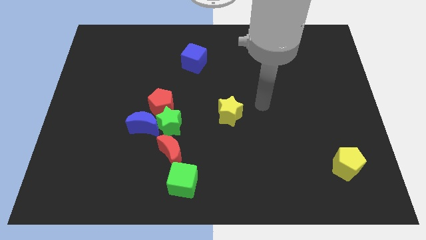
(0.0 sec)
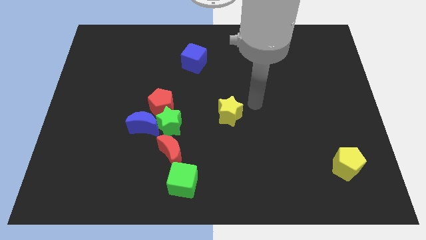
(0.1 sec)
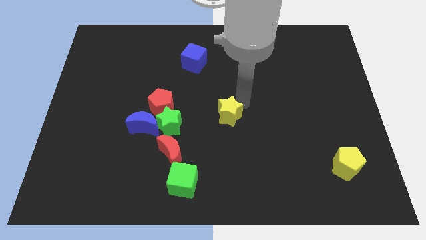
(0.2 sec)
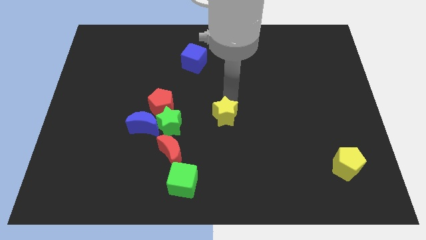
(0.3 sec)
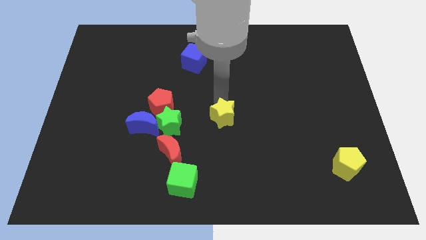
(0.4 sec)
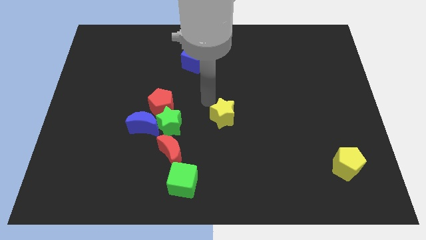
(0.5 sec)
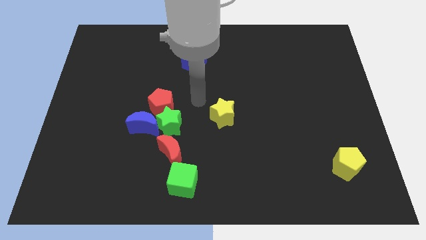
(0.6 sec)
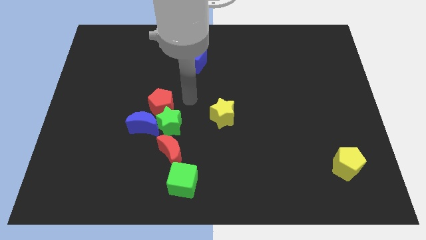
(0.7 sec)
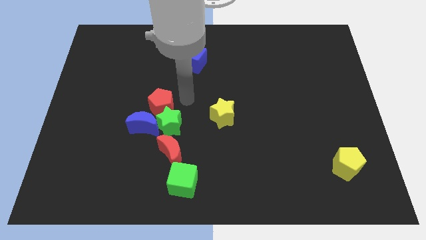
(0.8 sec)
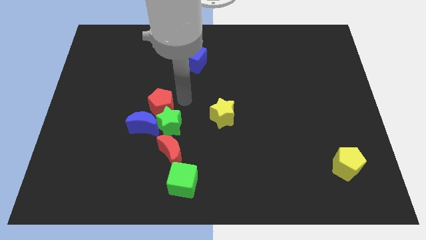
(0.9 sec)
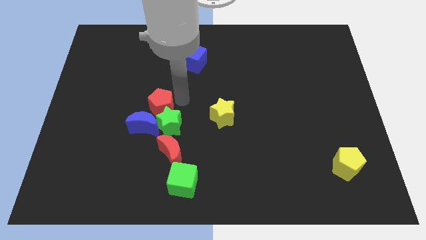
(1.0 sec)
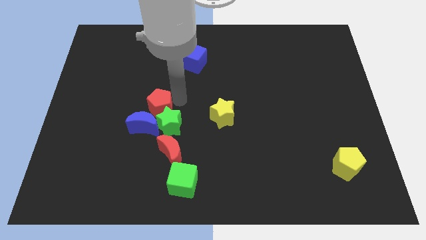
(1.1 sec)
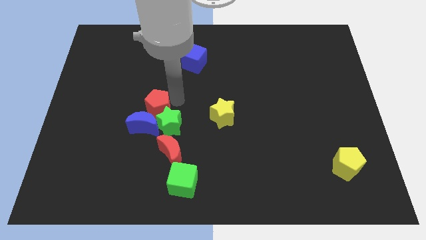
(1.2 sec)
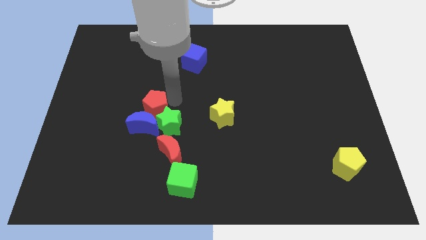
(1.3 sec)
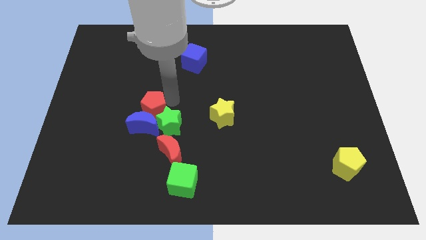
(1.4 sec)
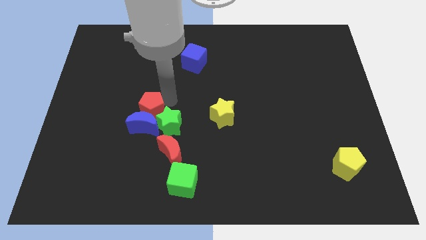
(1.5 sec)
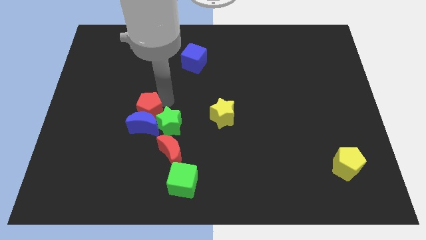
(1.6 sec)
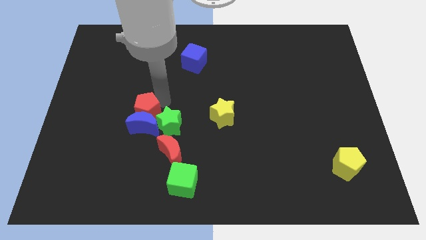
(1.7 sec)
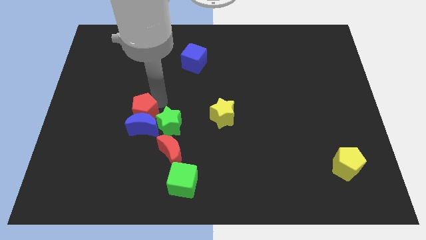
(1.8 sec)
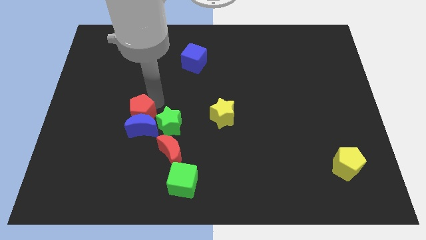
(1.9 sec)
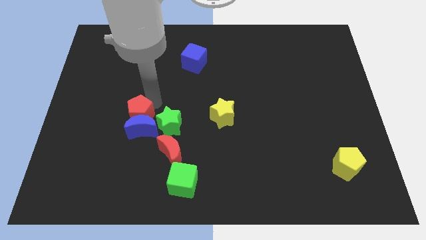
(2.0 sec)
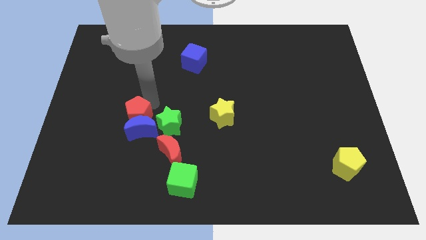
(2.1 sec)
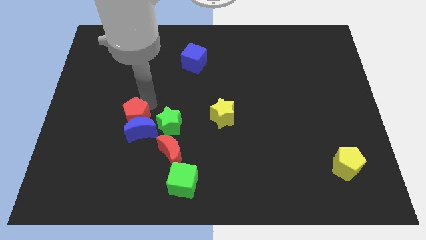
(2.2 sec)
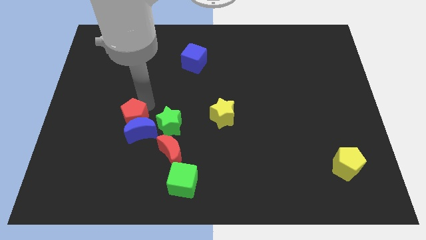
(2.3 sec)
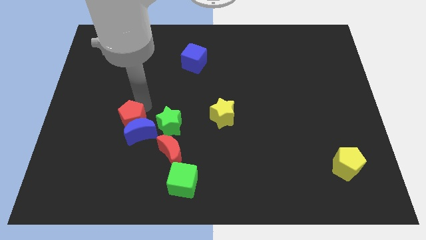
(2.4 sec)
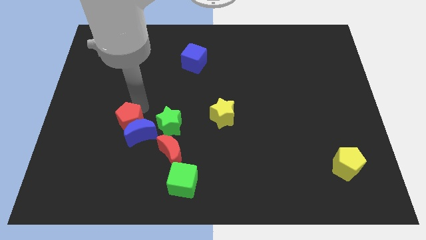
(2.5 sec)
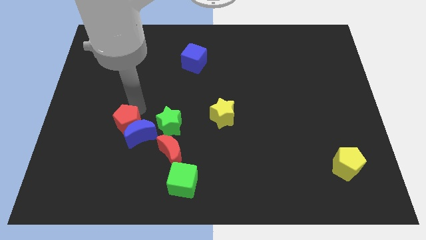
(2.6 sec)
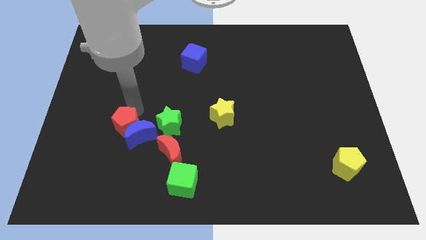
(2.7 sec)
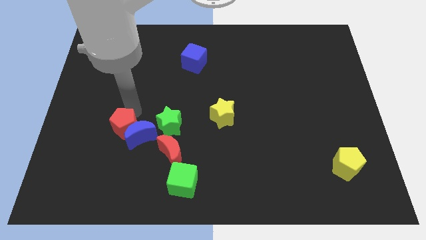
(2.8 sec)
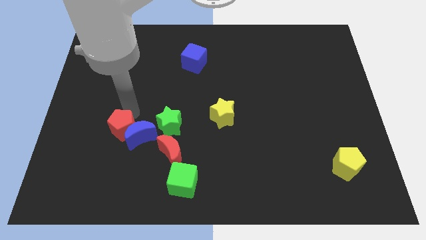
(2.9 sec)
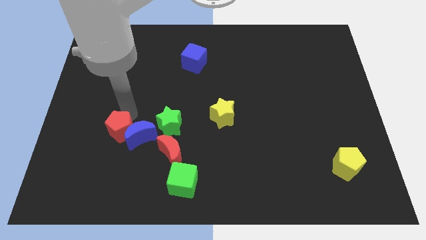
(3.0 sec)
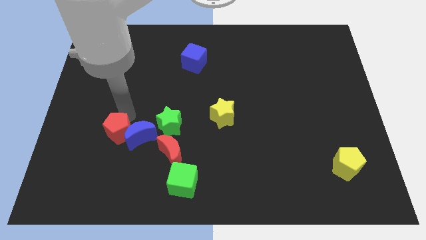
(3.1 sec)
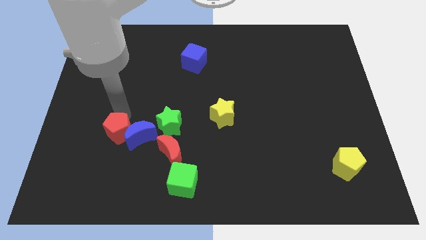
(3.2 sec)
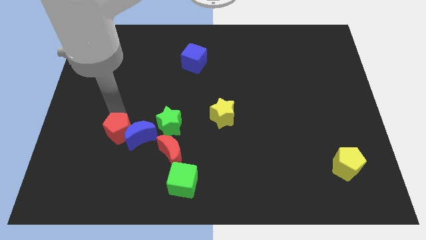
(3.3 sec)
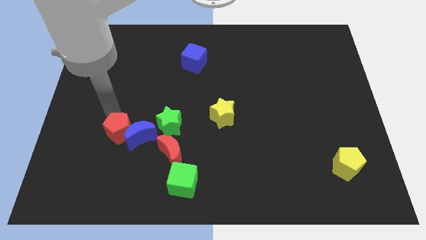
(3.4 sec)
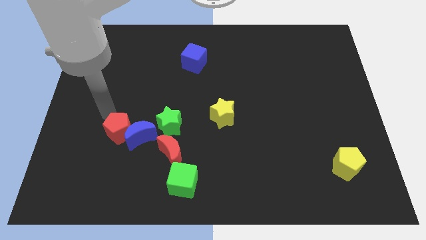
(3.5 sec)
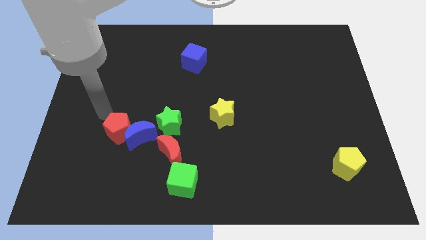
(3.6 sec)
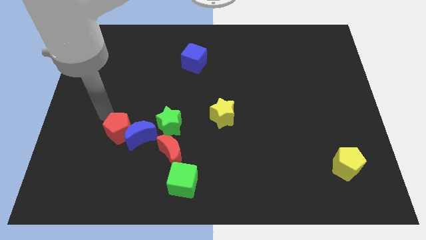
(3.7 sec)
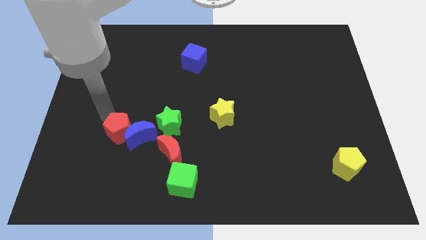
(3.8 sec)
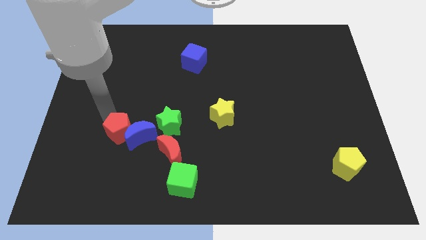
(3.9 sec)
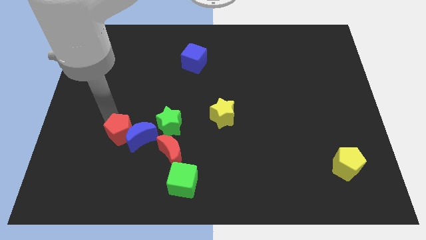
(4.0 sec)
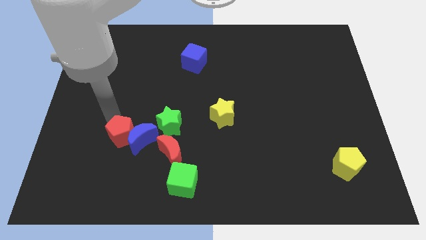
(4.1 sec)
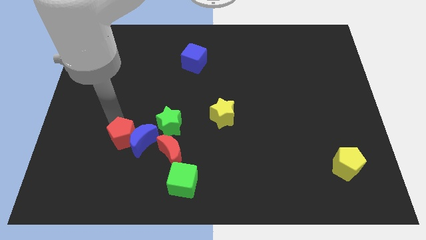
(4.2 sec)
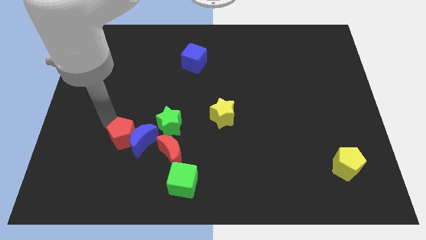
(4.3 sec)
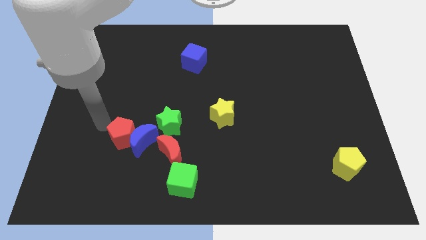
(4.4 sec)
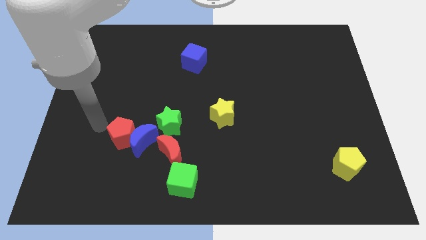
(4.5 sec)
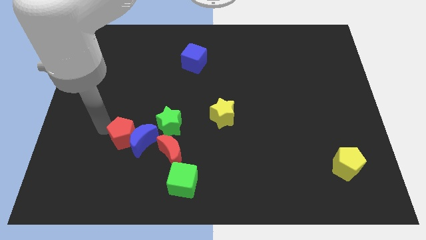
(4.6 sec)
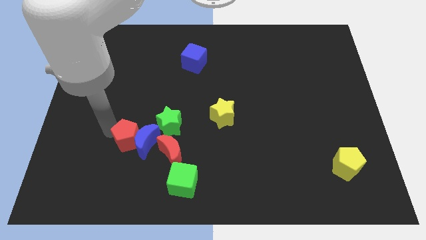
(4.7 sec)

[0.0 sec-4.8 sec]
push the red pentagon to the bottom left of the green star

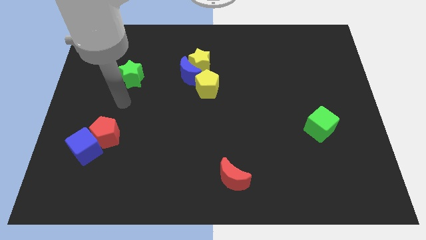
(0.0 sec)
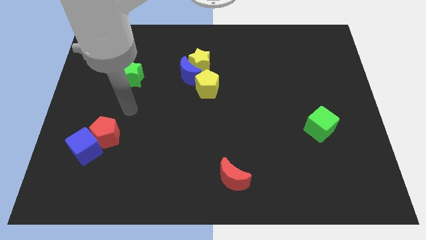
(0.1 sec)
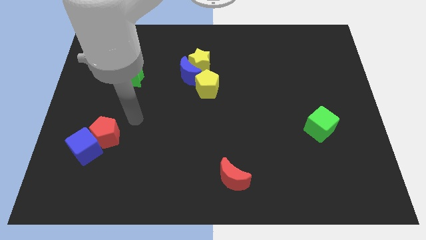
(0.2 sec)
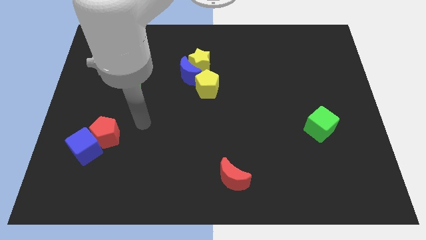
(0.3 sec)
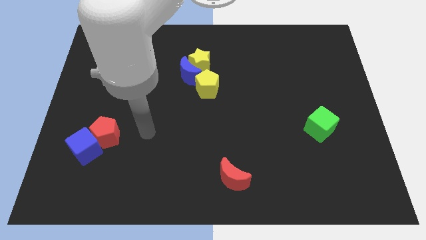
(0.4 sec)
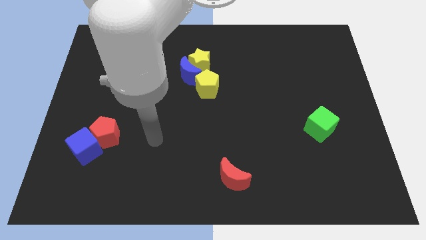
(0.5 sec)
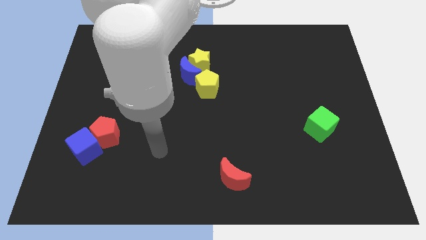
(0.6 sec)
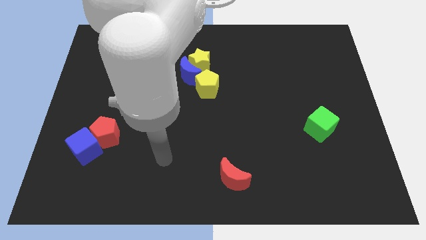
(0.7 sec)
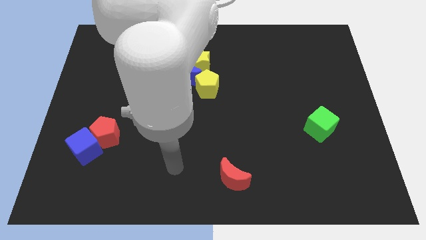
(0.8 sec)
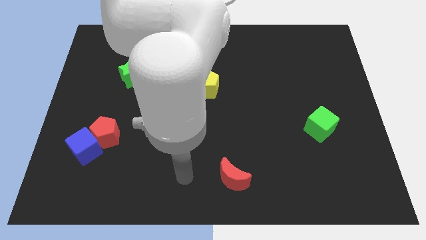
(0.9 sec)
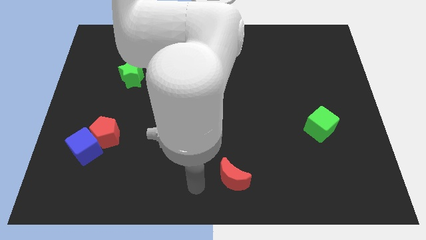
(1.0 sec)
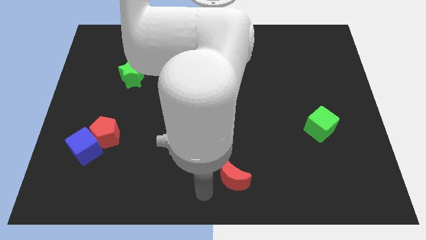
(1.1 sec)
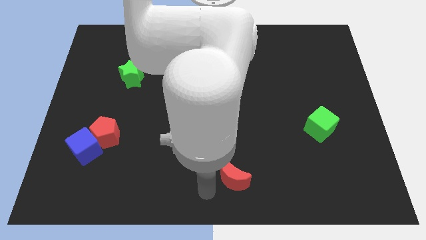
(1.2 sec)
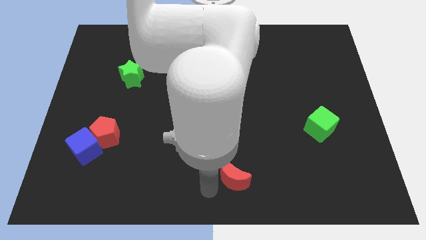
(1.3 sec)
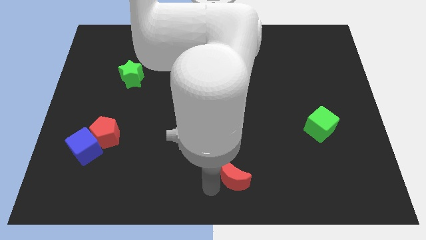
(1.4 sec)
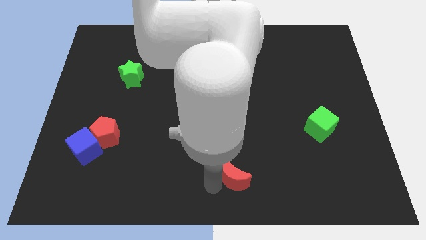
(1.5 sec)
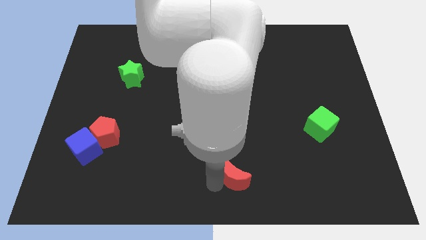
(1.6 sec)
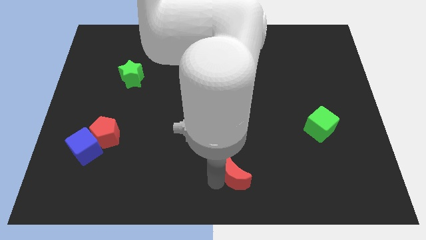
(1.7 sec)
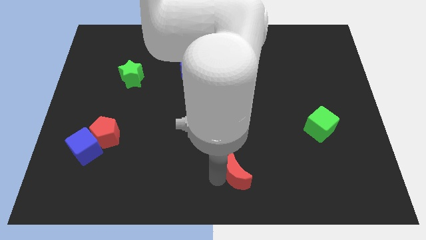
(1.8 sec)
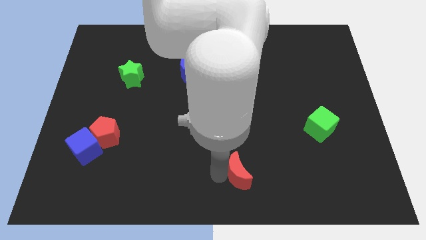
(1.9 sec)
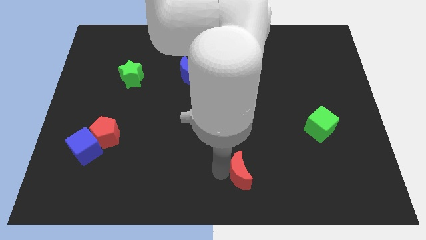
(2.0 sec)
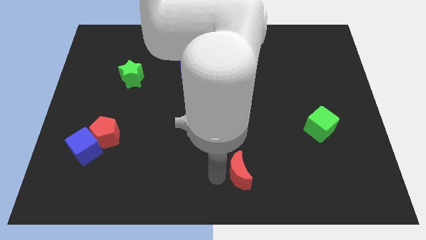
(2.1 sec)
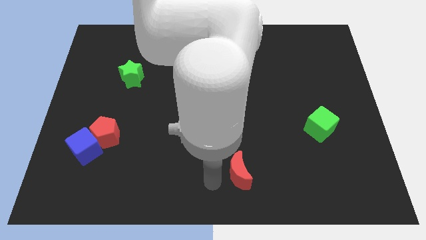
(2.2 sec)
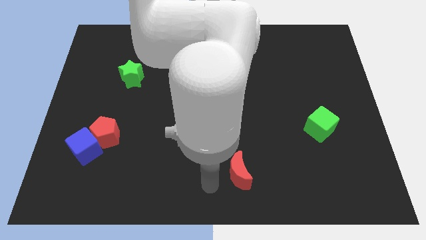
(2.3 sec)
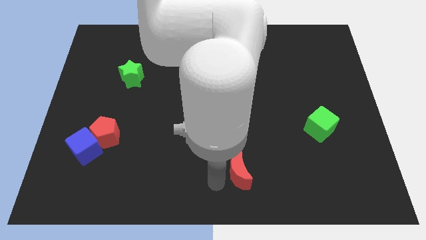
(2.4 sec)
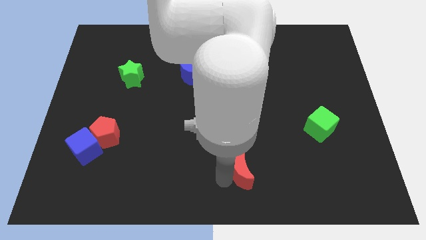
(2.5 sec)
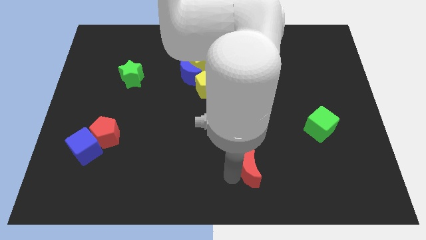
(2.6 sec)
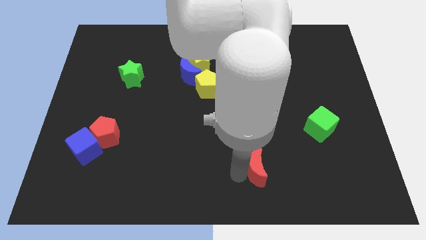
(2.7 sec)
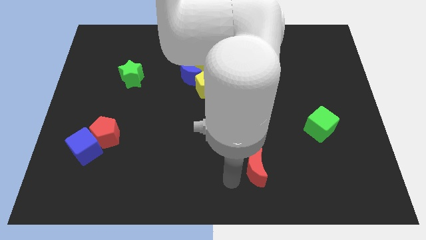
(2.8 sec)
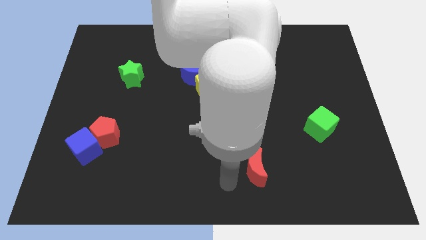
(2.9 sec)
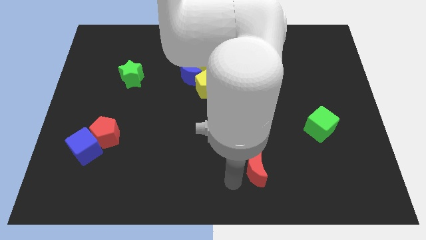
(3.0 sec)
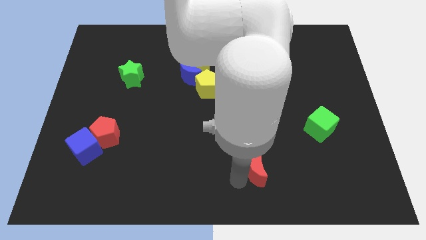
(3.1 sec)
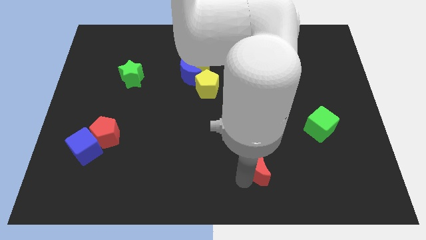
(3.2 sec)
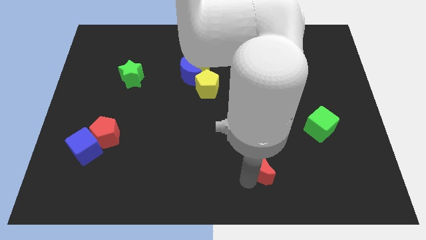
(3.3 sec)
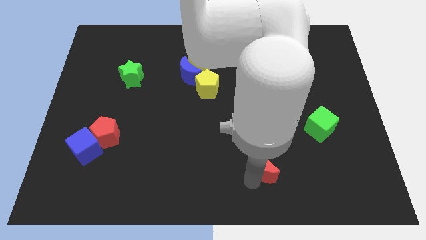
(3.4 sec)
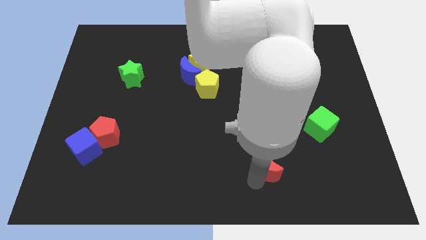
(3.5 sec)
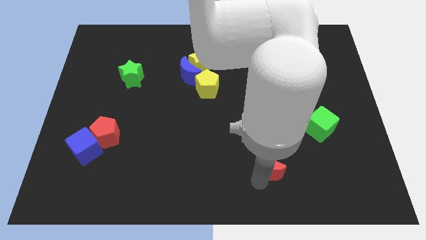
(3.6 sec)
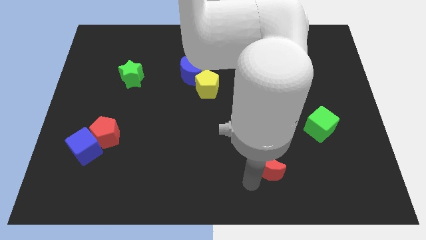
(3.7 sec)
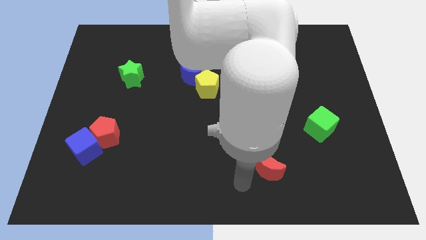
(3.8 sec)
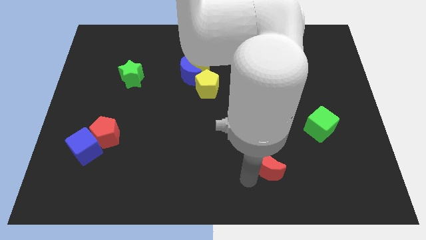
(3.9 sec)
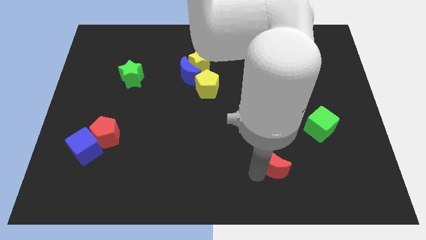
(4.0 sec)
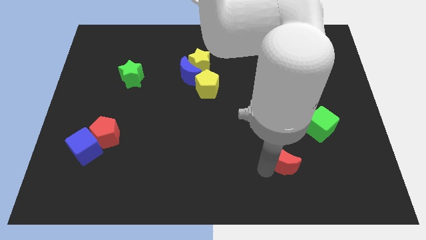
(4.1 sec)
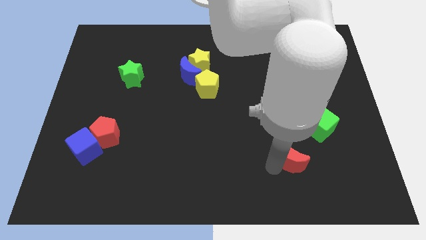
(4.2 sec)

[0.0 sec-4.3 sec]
move the red moon diagonally down and to the left of the green cube
